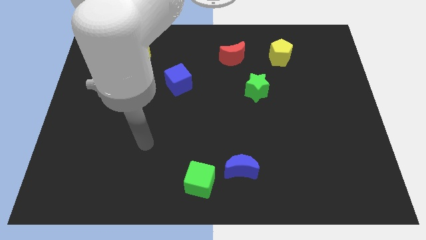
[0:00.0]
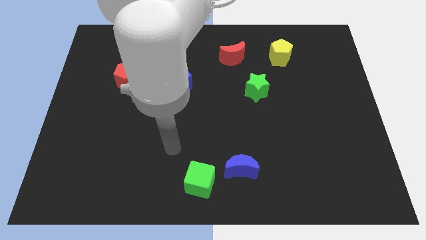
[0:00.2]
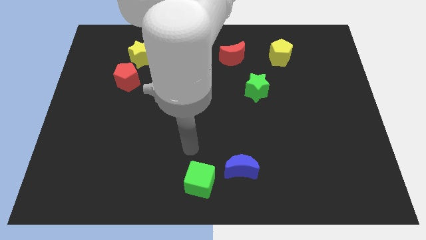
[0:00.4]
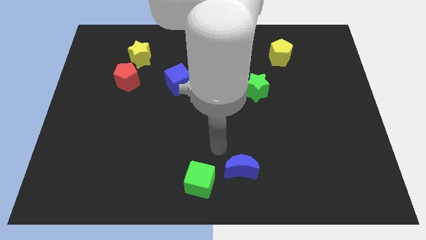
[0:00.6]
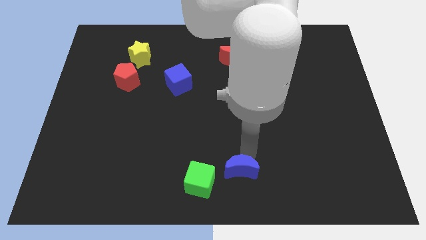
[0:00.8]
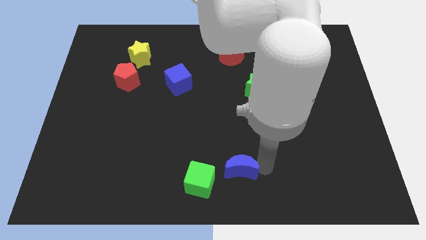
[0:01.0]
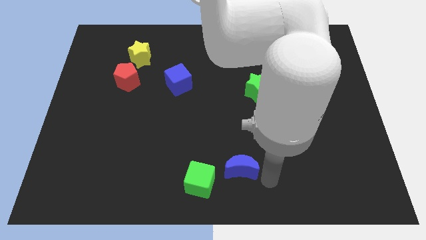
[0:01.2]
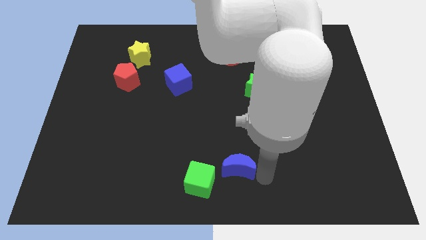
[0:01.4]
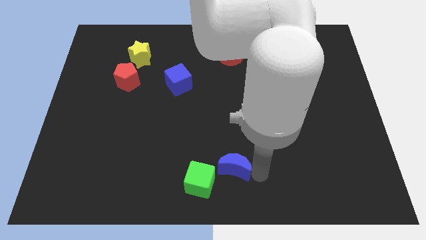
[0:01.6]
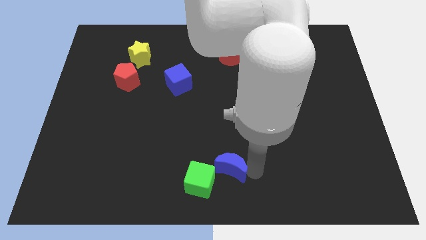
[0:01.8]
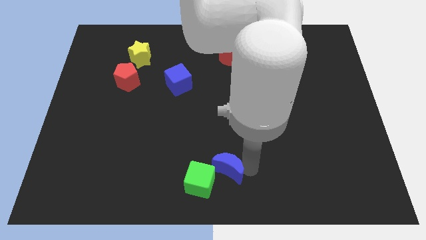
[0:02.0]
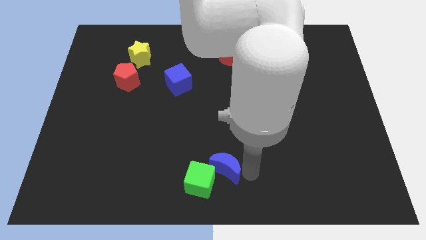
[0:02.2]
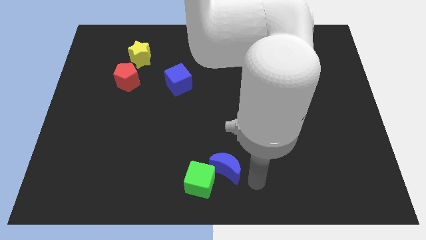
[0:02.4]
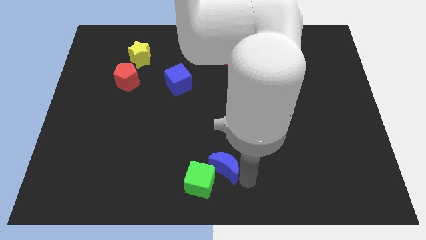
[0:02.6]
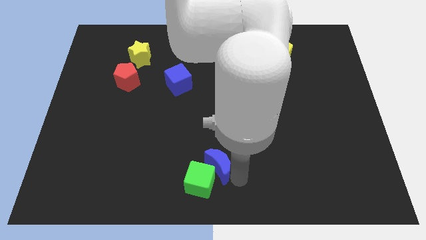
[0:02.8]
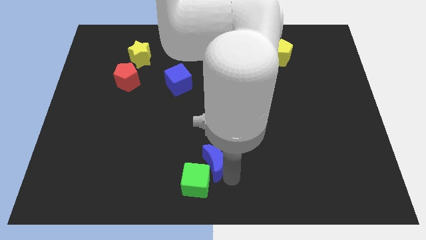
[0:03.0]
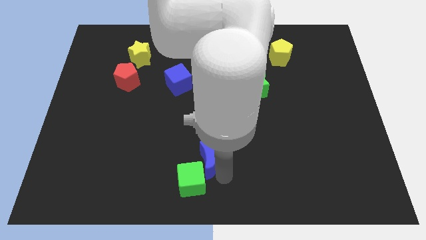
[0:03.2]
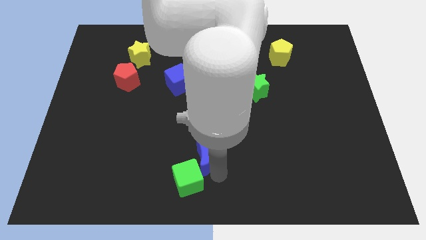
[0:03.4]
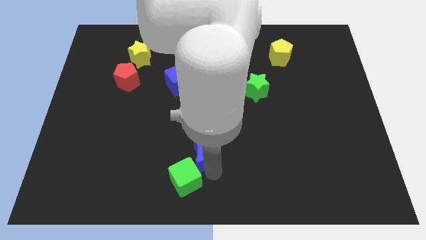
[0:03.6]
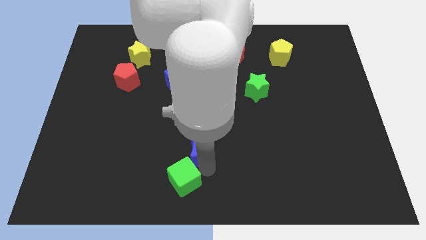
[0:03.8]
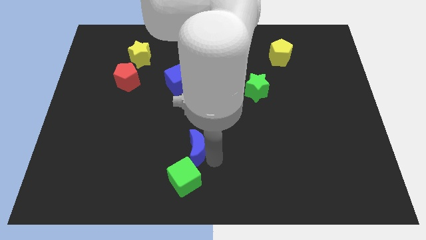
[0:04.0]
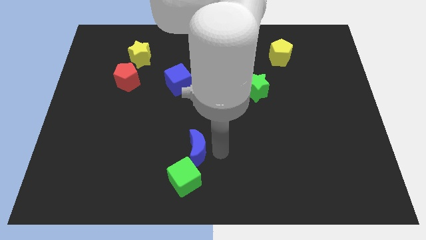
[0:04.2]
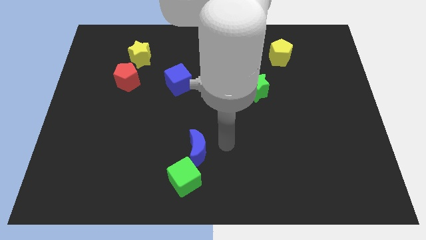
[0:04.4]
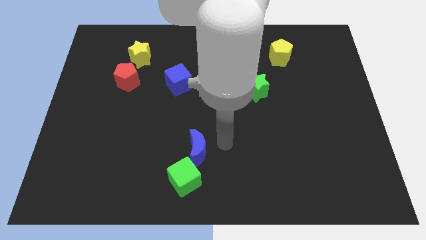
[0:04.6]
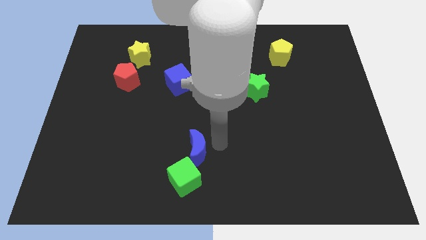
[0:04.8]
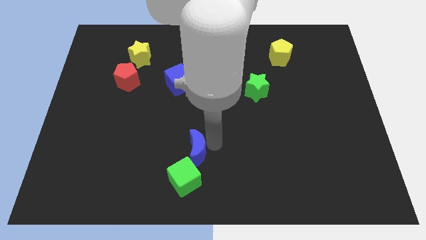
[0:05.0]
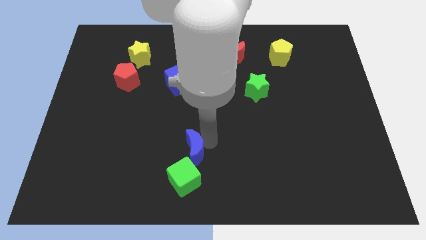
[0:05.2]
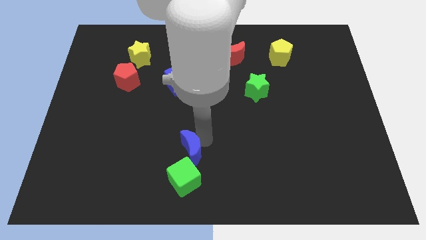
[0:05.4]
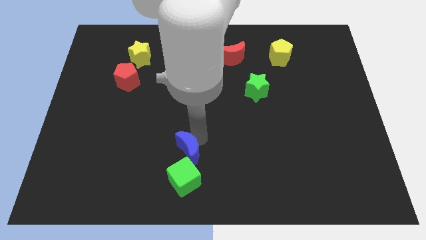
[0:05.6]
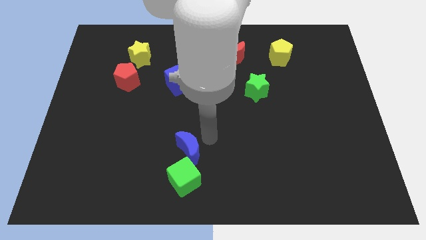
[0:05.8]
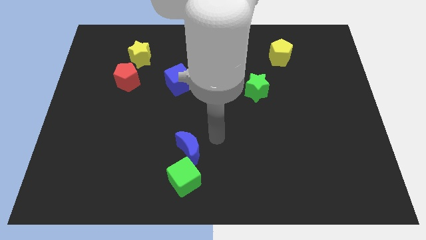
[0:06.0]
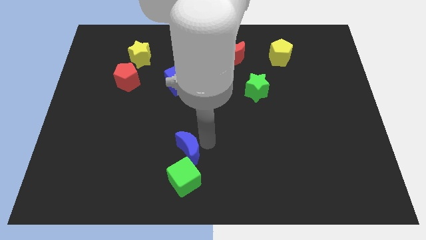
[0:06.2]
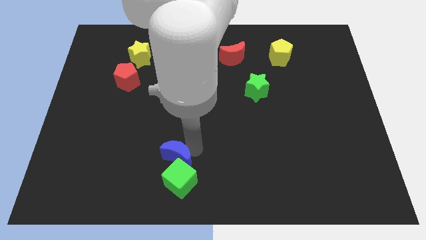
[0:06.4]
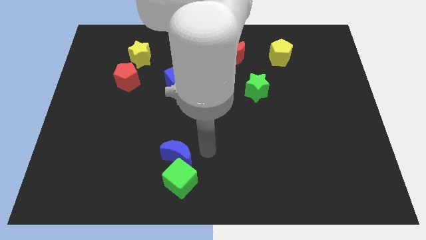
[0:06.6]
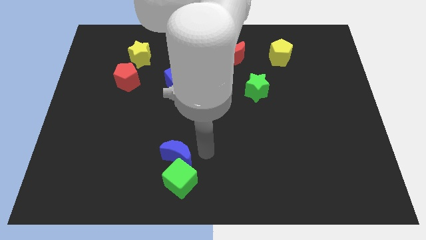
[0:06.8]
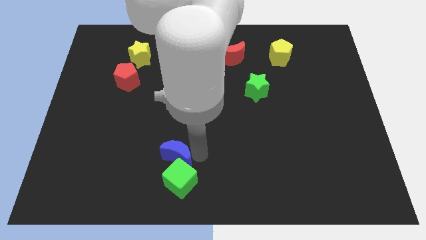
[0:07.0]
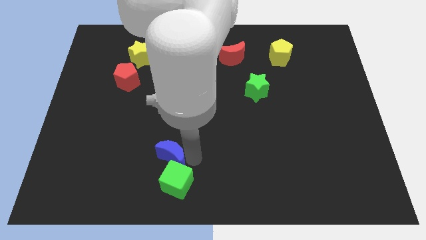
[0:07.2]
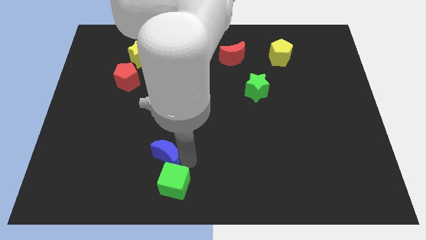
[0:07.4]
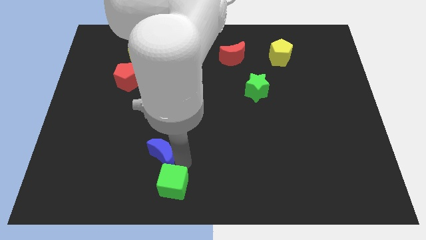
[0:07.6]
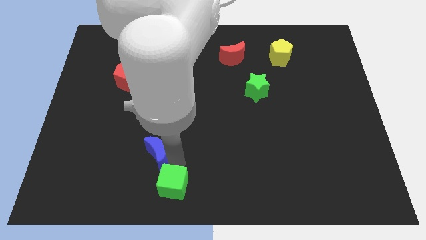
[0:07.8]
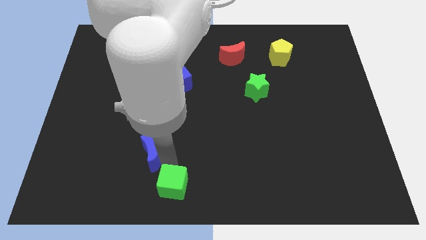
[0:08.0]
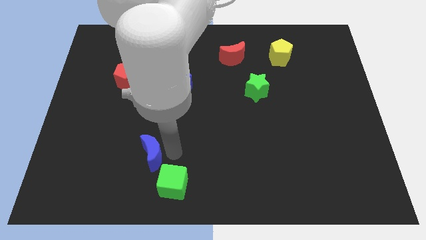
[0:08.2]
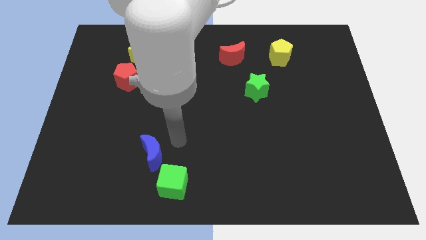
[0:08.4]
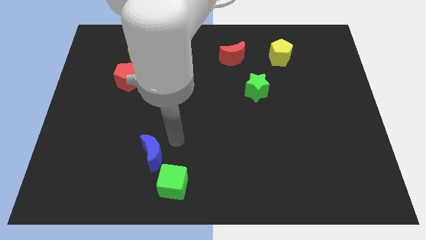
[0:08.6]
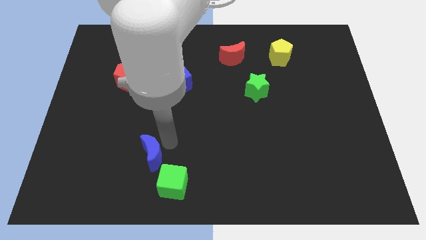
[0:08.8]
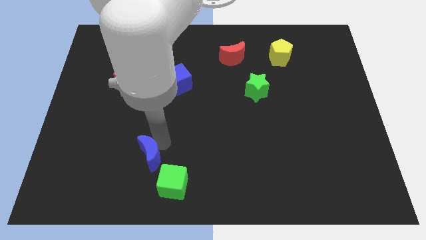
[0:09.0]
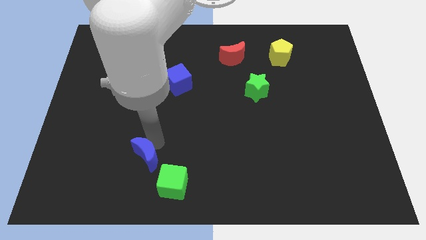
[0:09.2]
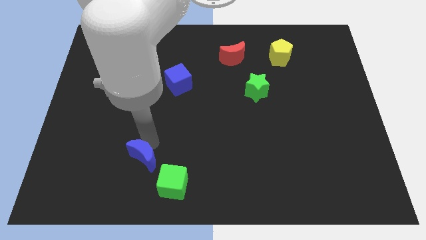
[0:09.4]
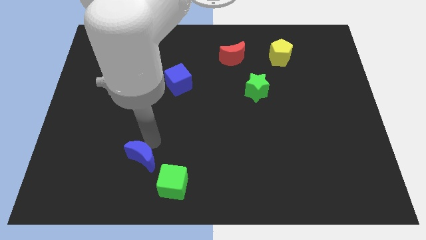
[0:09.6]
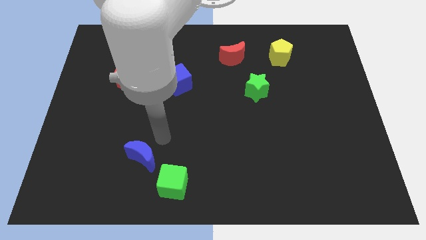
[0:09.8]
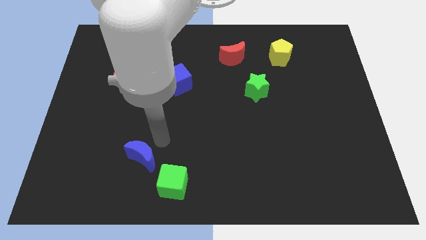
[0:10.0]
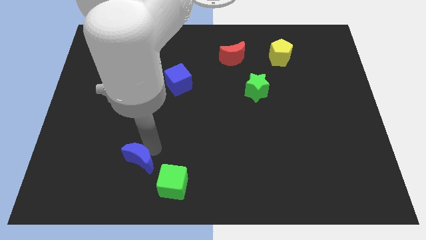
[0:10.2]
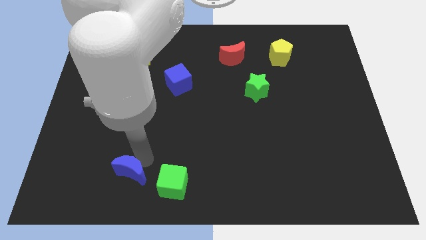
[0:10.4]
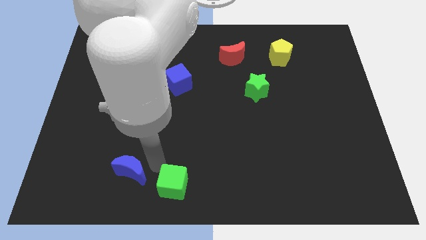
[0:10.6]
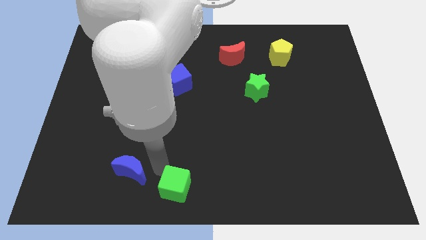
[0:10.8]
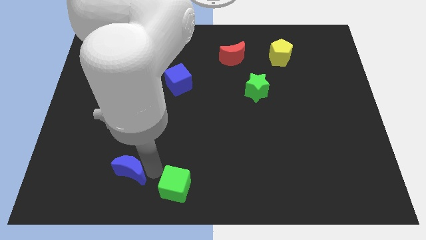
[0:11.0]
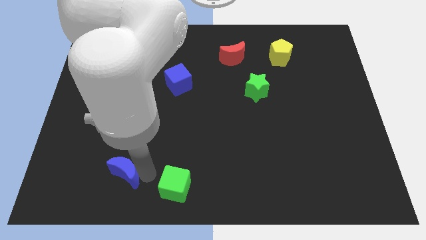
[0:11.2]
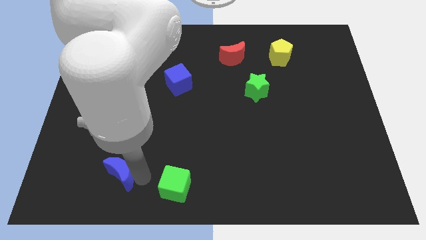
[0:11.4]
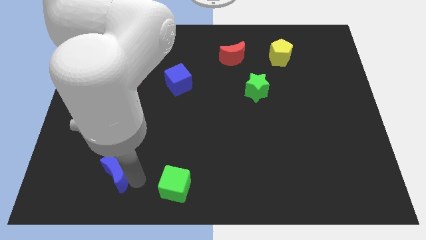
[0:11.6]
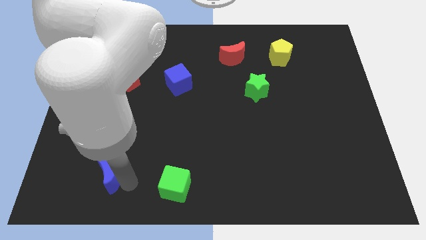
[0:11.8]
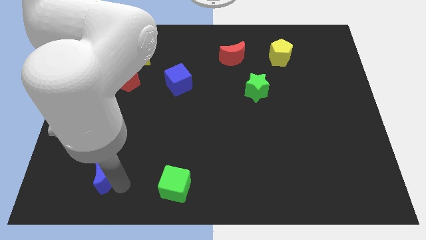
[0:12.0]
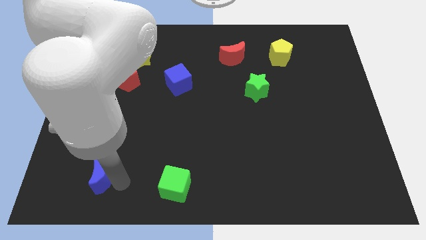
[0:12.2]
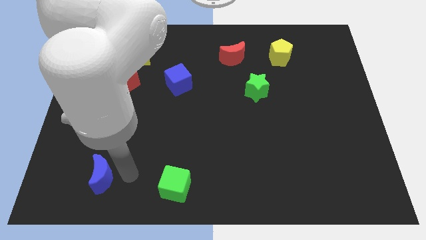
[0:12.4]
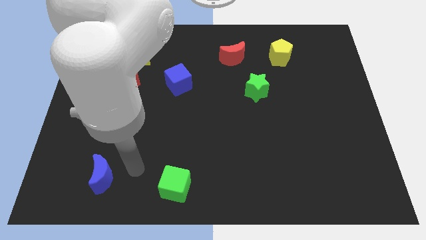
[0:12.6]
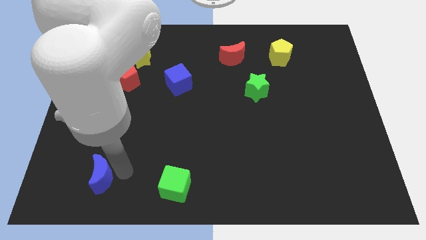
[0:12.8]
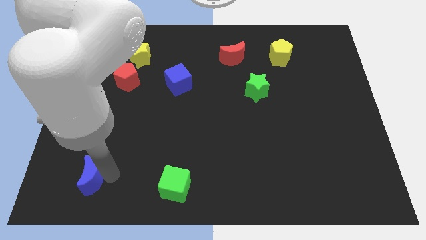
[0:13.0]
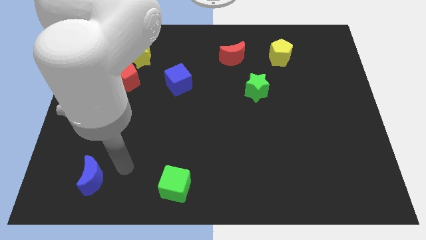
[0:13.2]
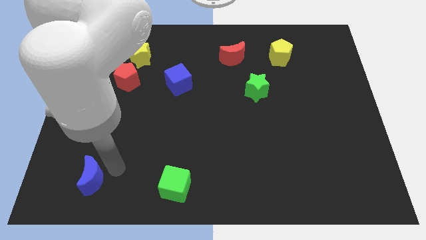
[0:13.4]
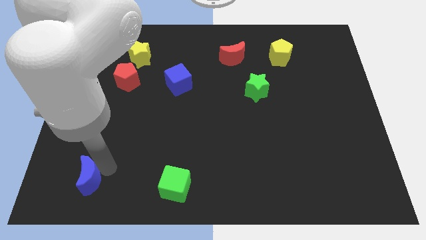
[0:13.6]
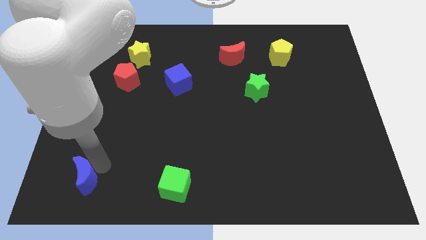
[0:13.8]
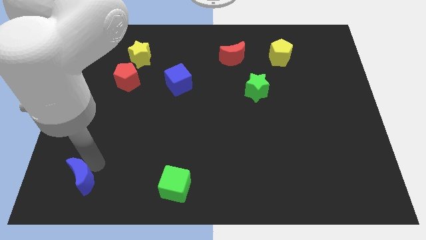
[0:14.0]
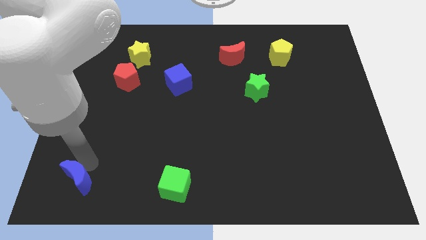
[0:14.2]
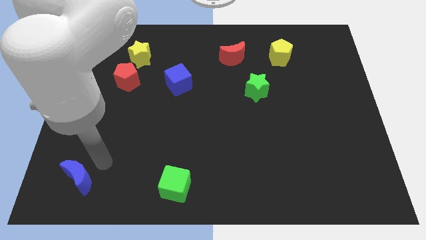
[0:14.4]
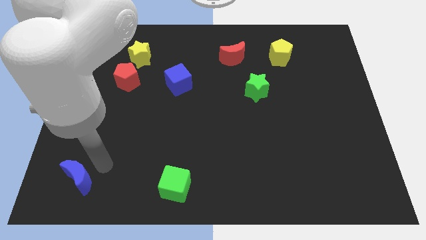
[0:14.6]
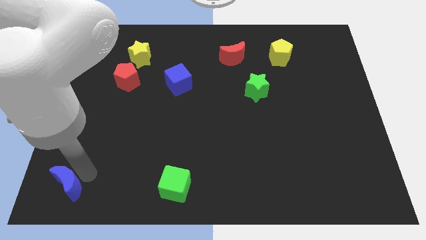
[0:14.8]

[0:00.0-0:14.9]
push the blue moon to the bottom left of the board
